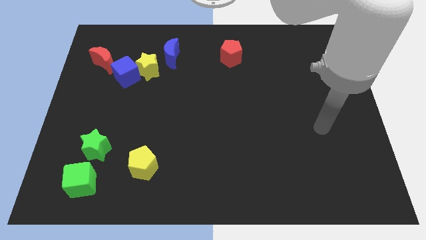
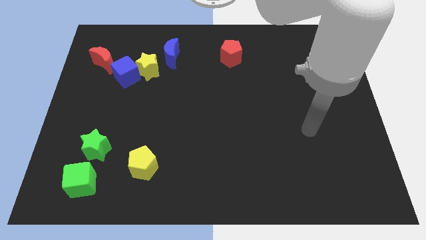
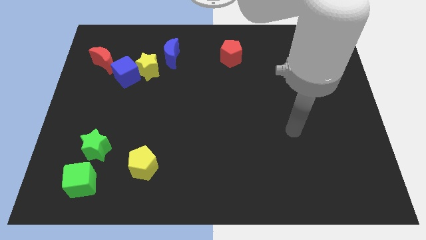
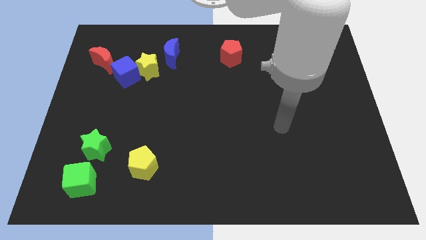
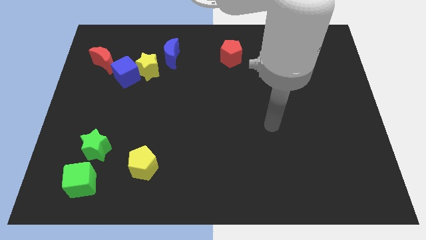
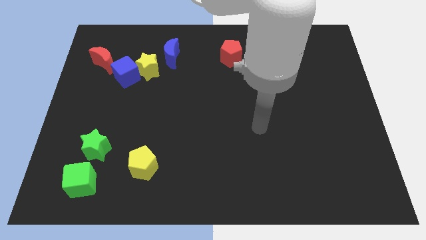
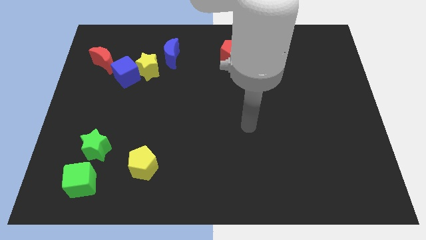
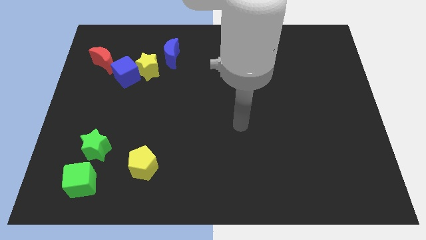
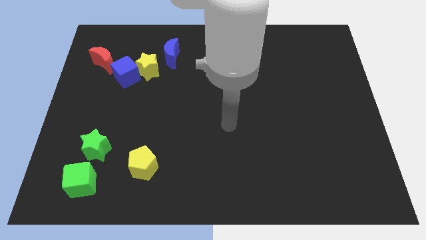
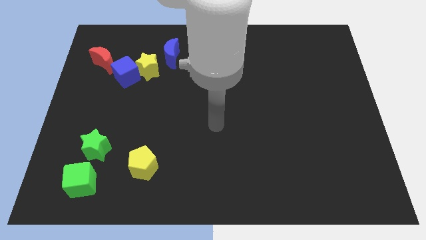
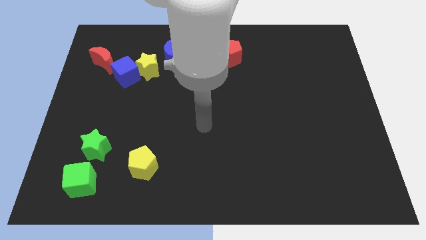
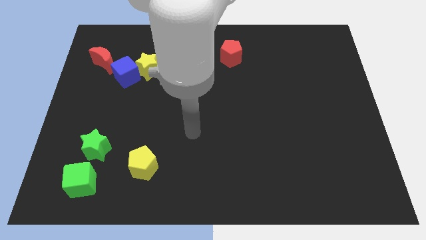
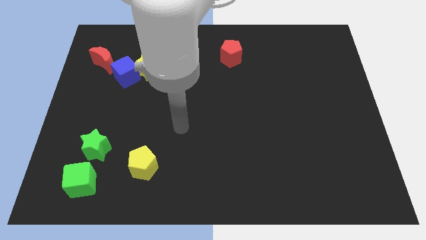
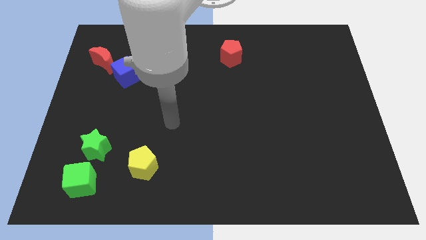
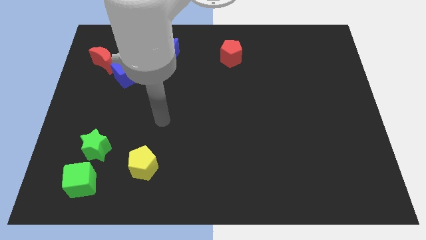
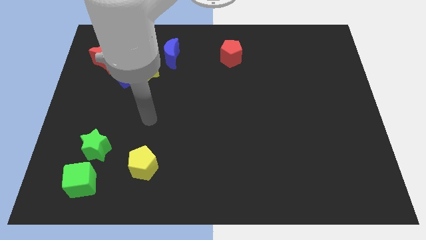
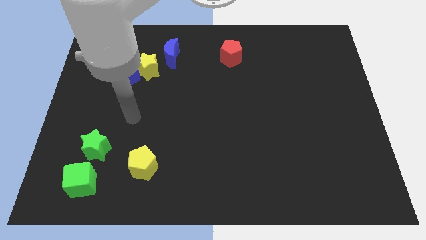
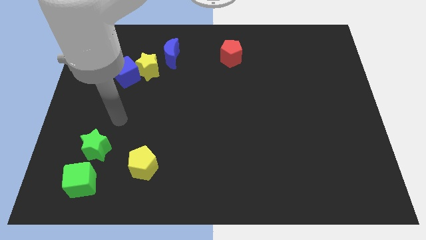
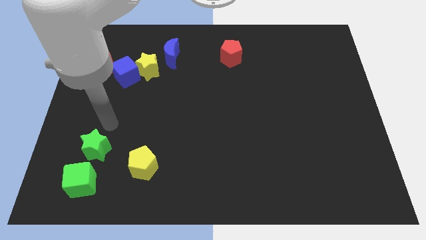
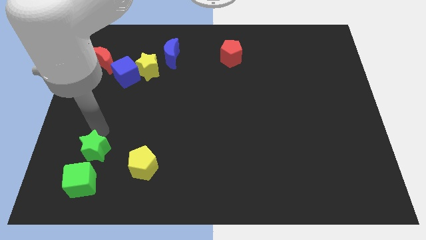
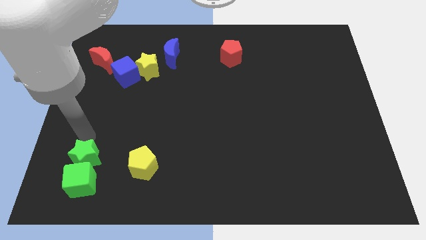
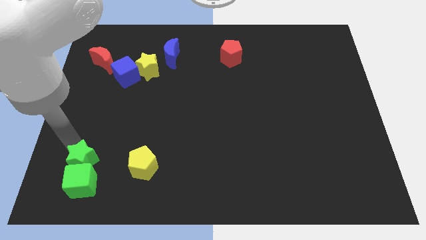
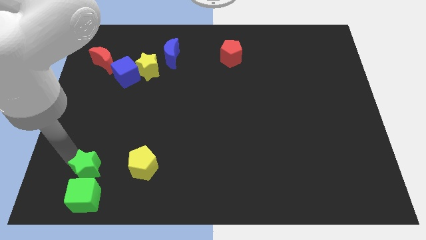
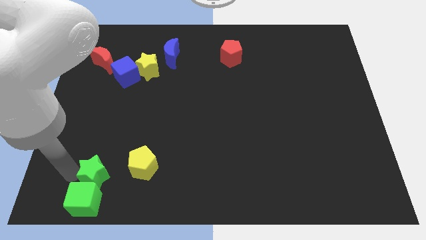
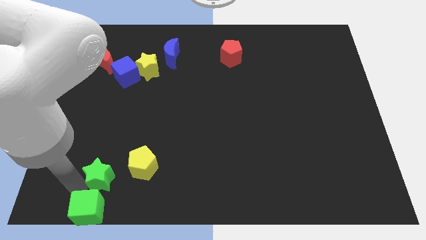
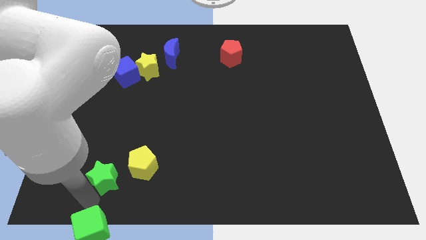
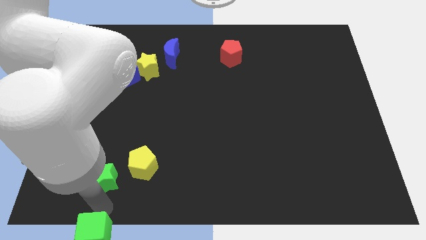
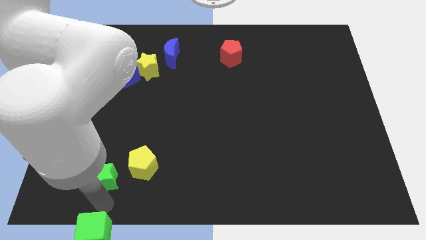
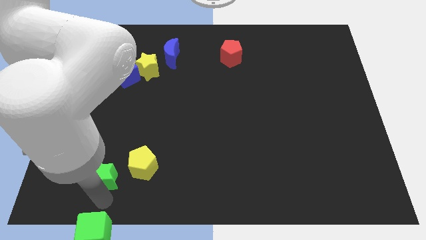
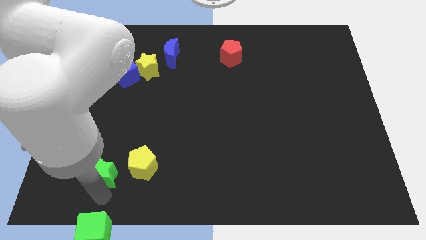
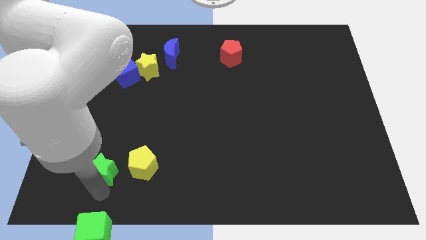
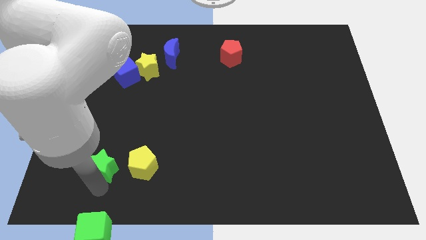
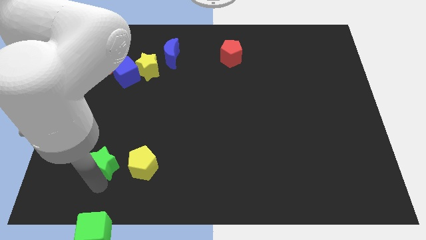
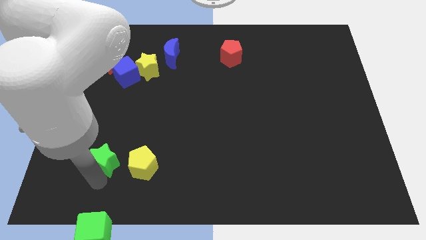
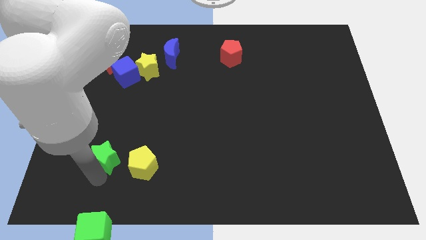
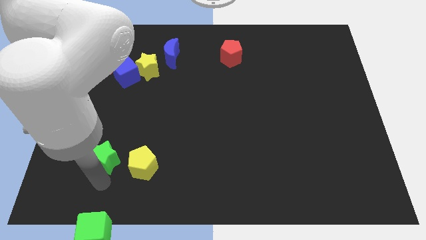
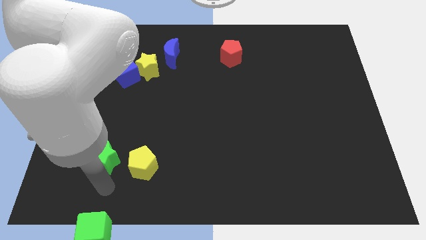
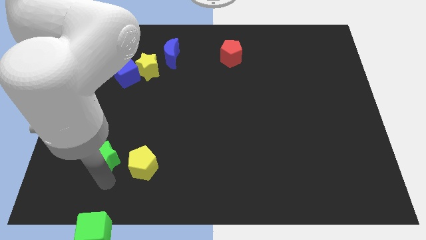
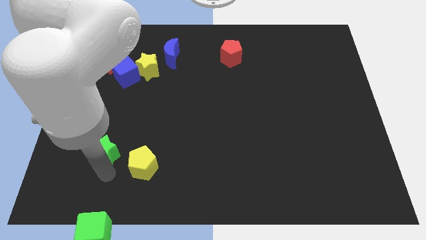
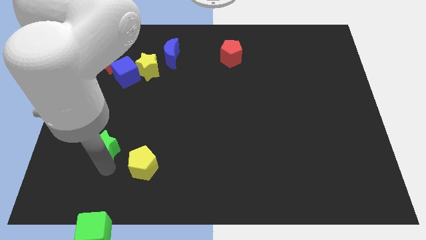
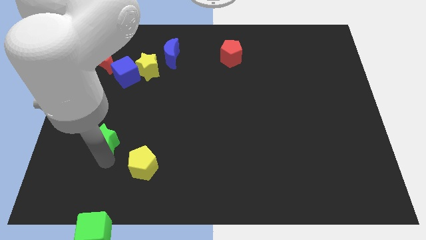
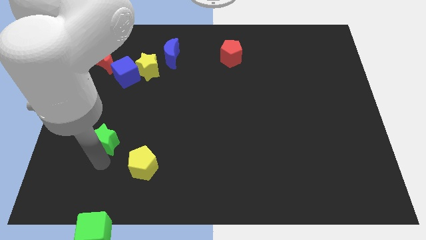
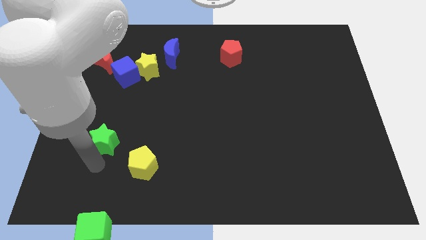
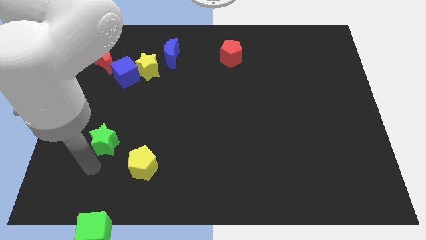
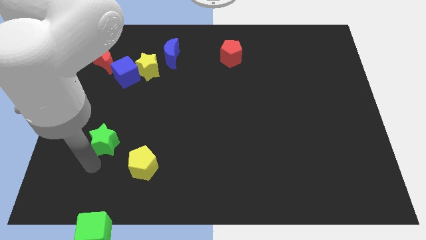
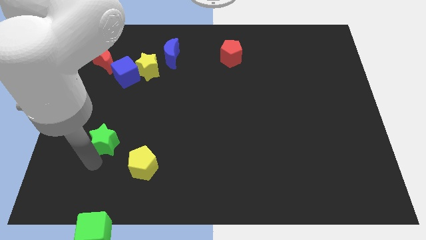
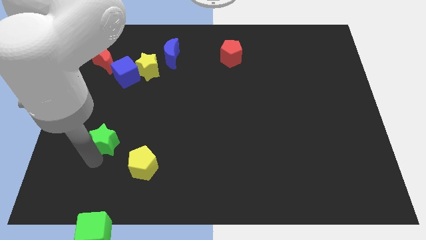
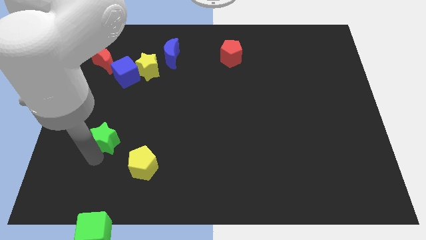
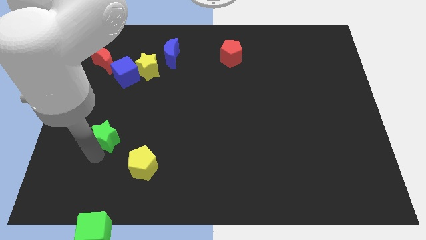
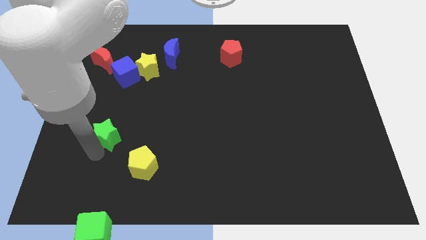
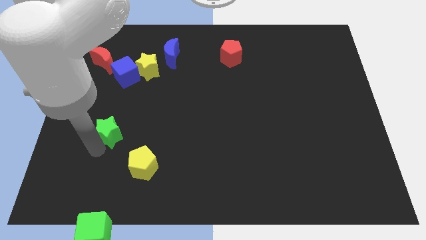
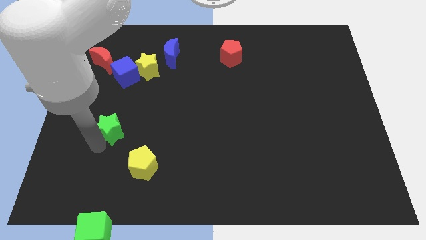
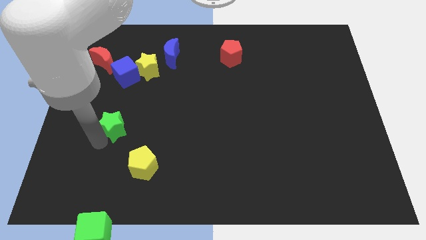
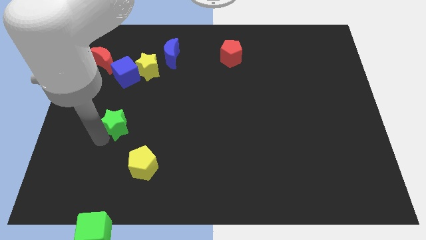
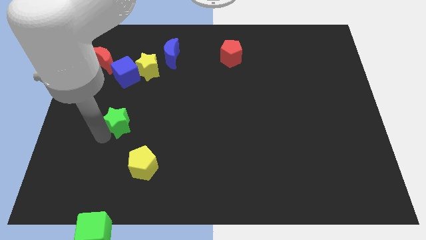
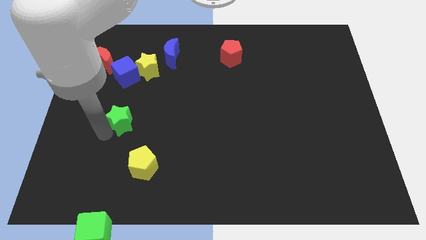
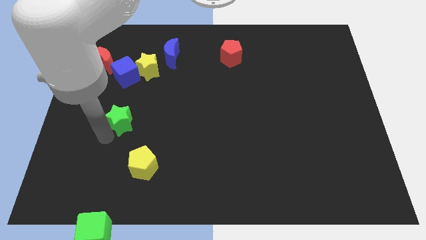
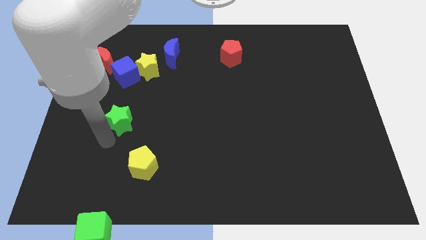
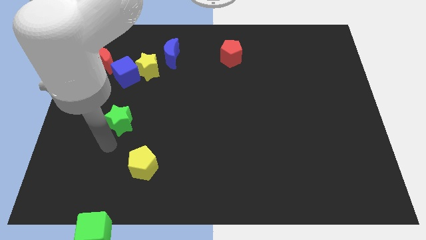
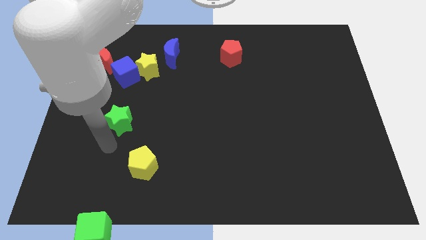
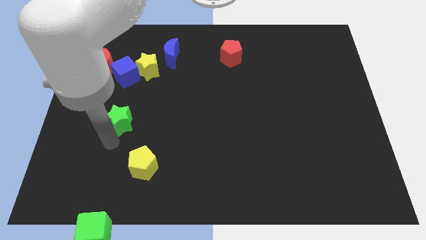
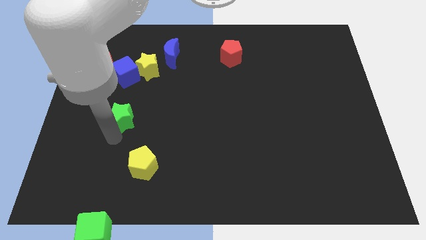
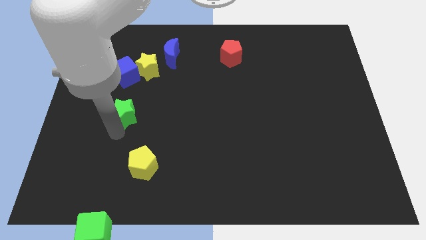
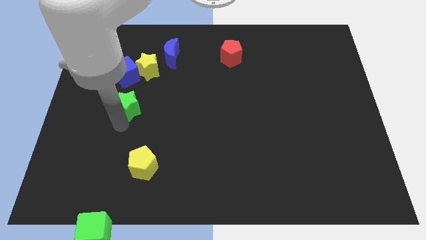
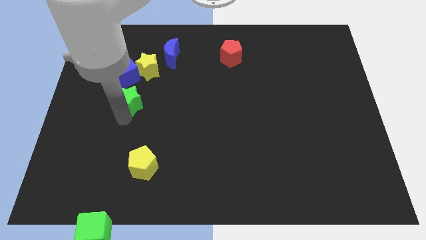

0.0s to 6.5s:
push the green star diagonally down and to the right of the blue cube
